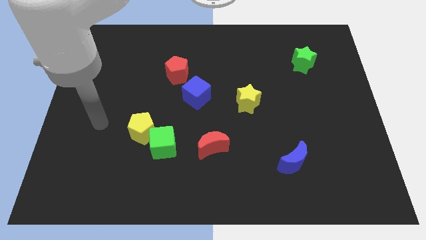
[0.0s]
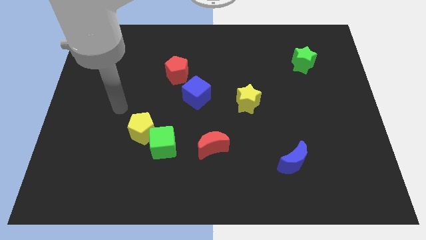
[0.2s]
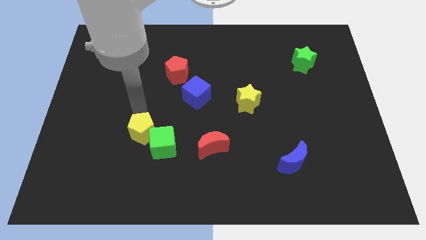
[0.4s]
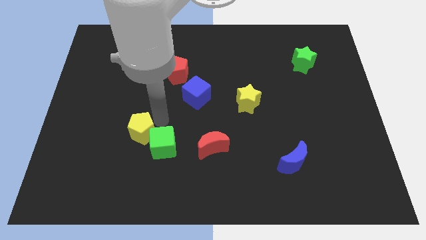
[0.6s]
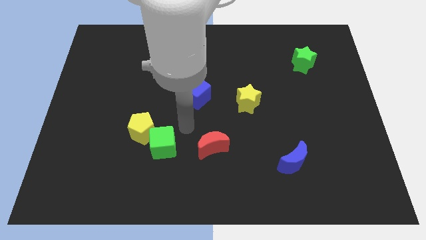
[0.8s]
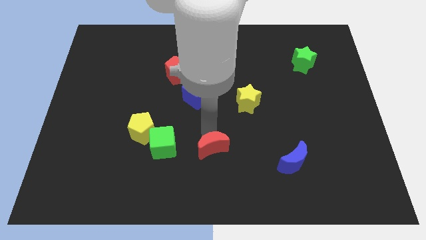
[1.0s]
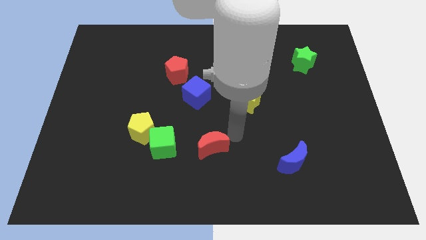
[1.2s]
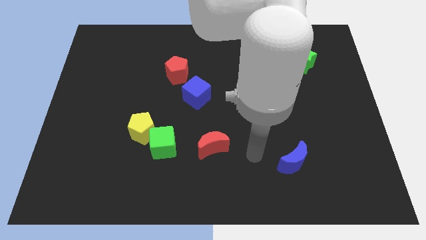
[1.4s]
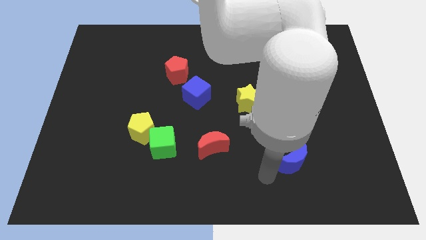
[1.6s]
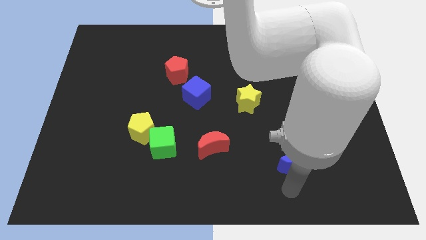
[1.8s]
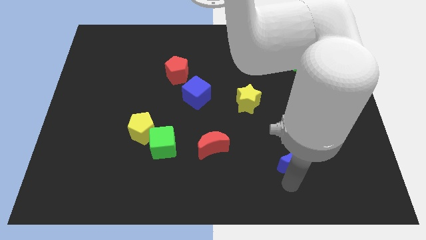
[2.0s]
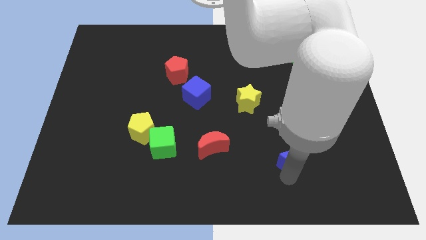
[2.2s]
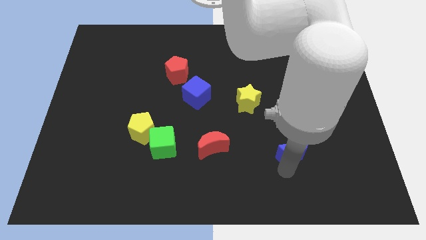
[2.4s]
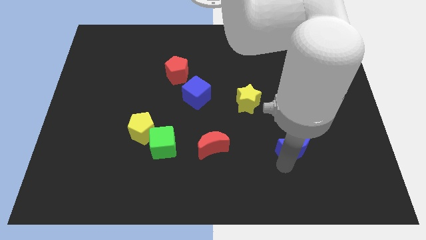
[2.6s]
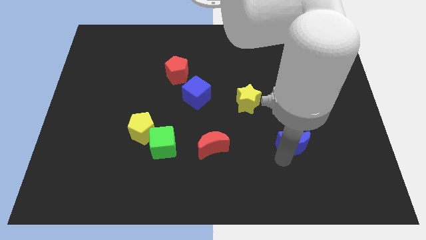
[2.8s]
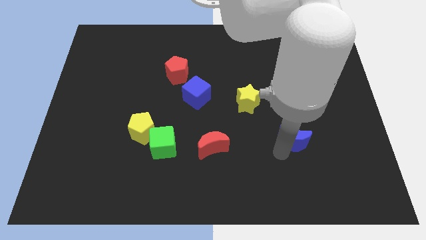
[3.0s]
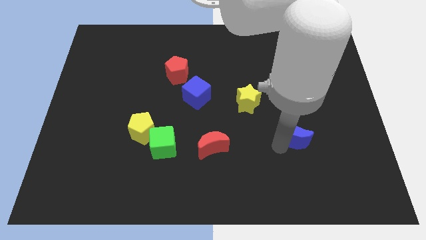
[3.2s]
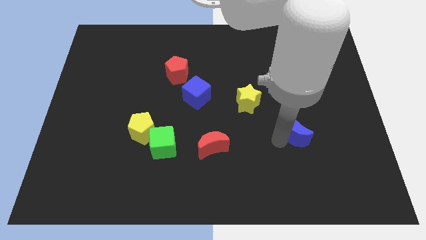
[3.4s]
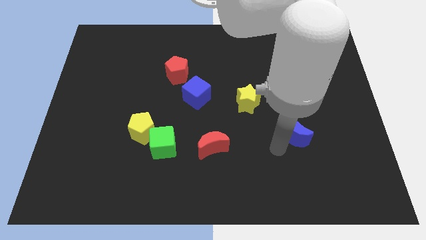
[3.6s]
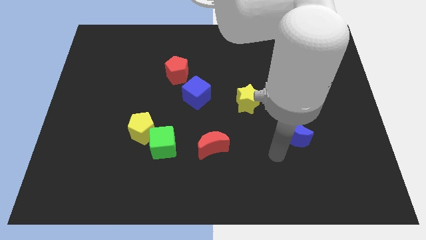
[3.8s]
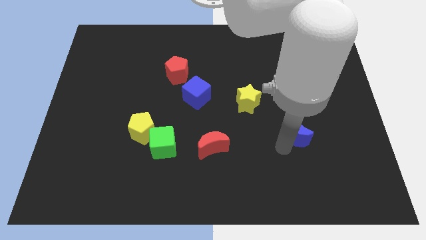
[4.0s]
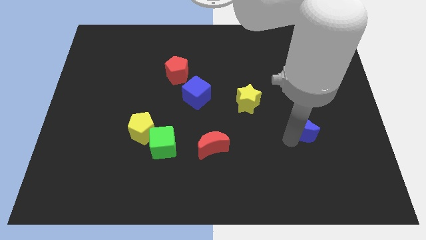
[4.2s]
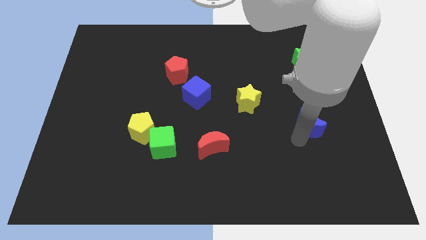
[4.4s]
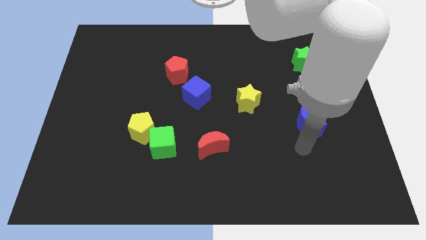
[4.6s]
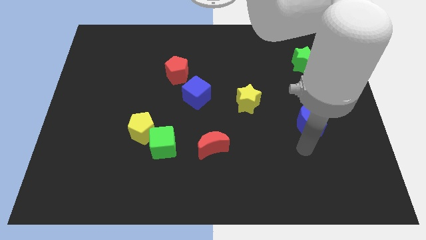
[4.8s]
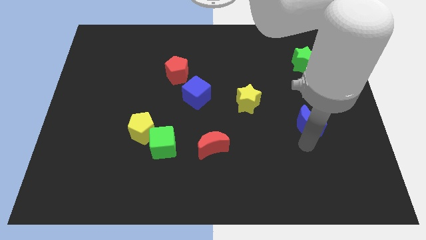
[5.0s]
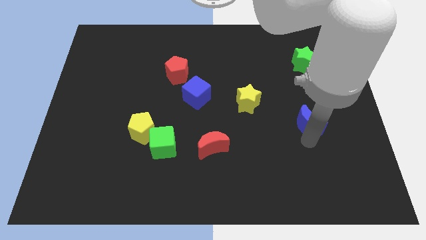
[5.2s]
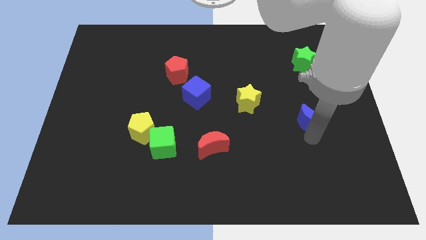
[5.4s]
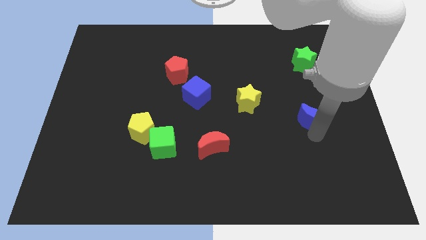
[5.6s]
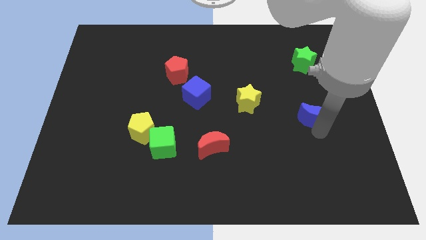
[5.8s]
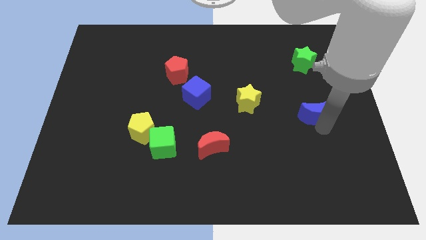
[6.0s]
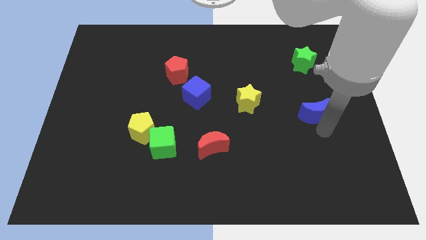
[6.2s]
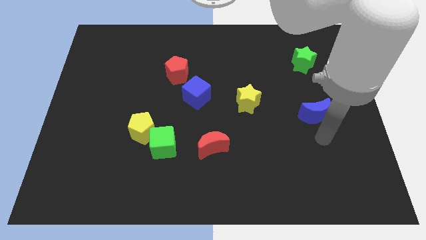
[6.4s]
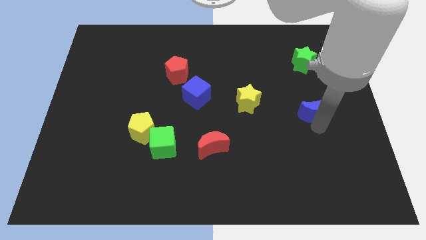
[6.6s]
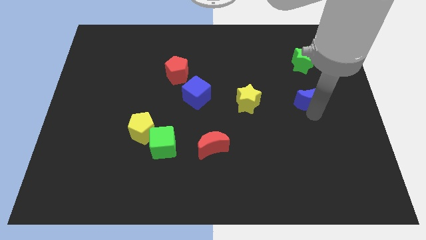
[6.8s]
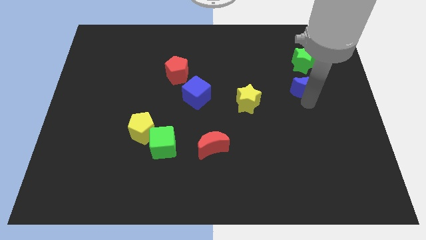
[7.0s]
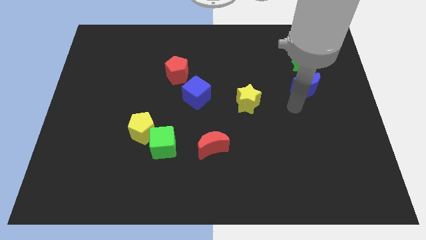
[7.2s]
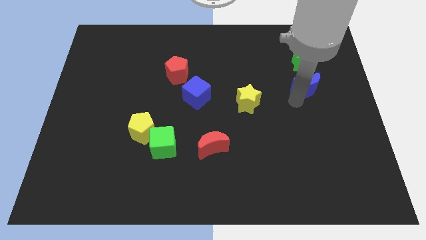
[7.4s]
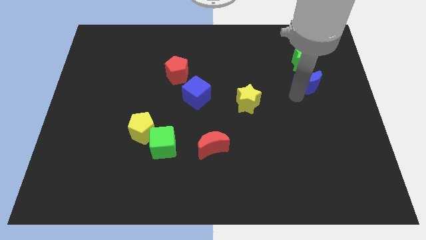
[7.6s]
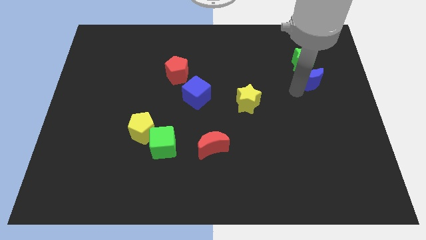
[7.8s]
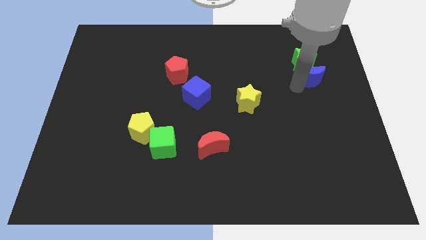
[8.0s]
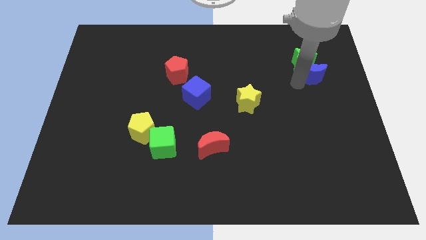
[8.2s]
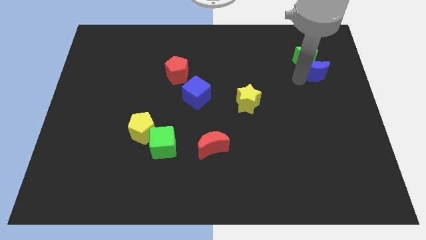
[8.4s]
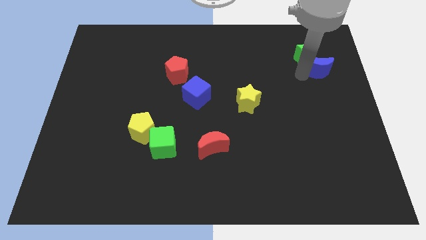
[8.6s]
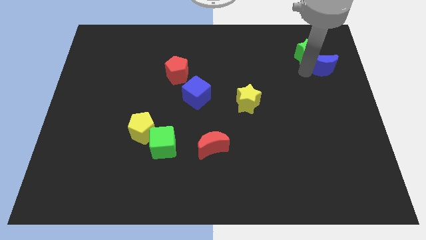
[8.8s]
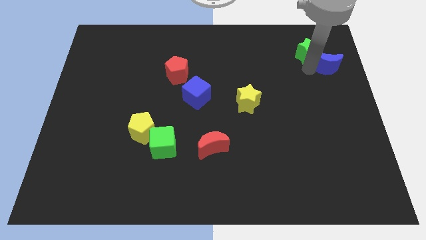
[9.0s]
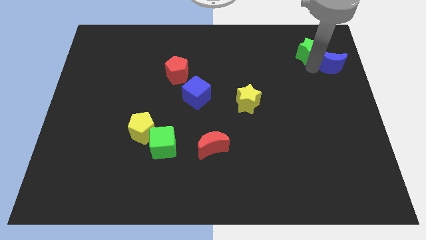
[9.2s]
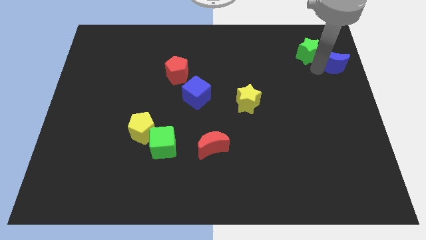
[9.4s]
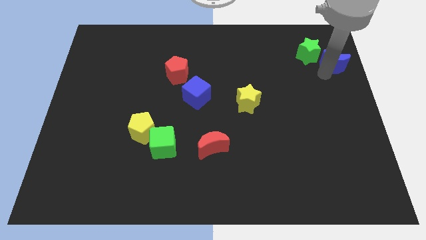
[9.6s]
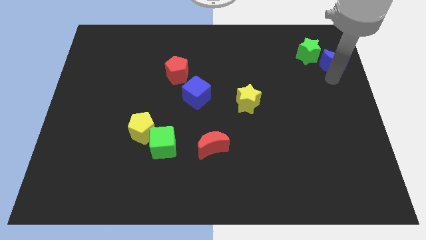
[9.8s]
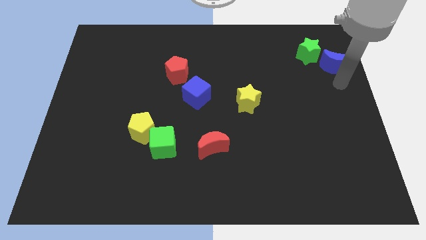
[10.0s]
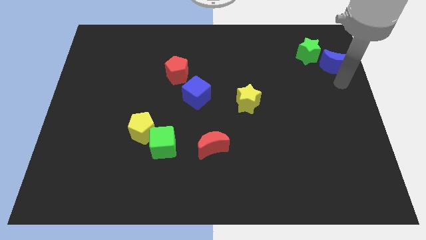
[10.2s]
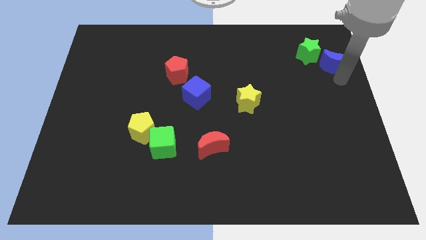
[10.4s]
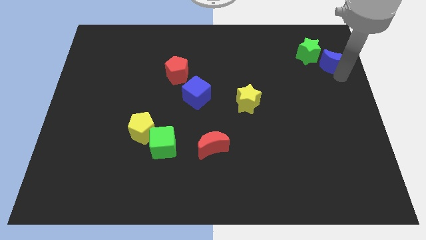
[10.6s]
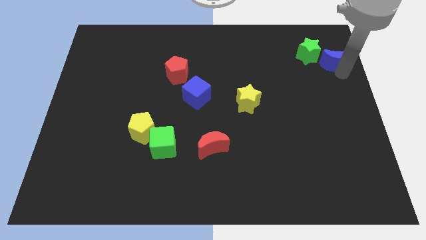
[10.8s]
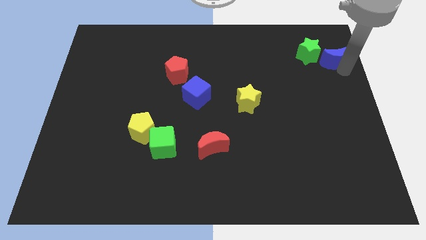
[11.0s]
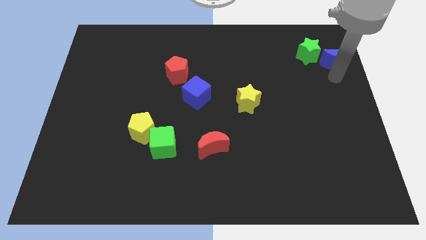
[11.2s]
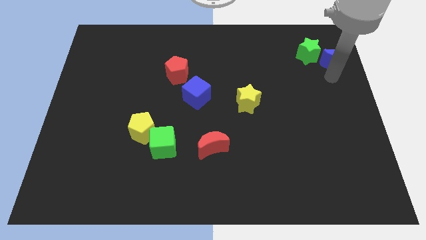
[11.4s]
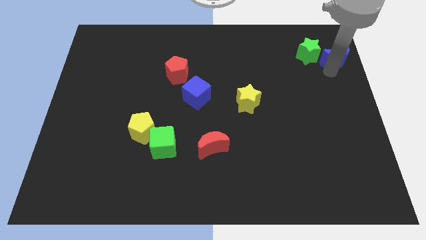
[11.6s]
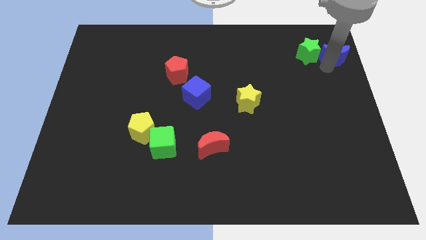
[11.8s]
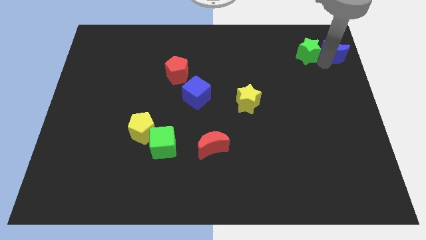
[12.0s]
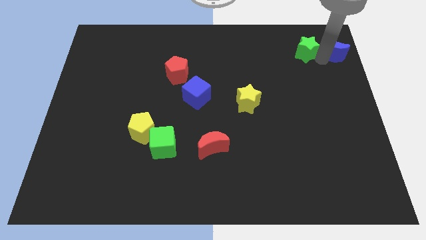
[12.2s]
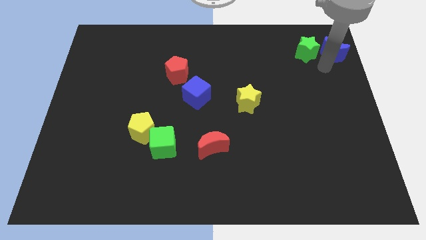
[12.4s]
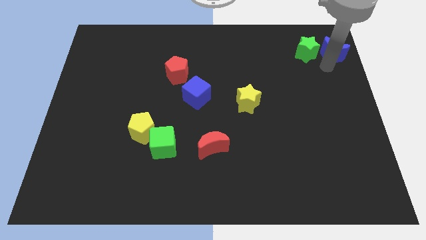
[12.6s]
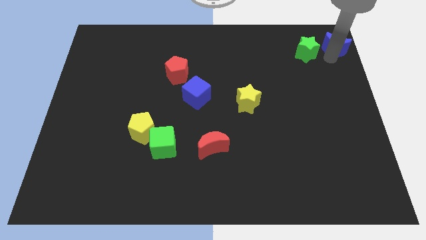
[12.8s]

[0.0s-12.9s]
push the blue moon to the top right
